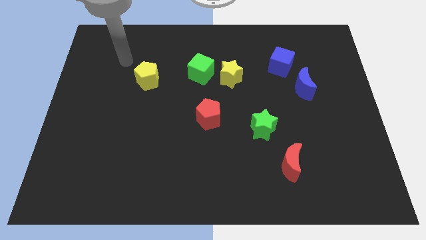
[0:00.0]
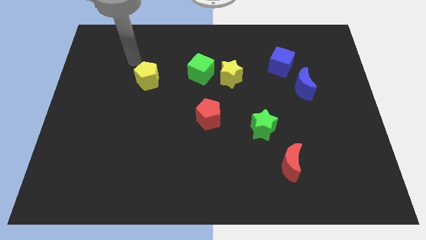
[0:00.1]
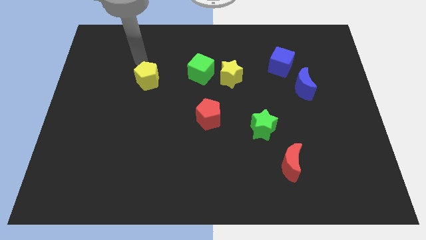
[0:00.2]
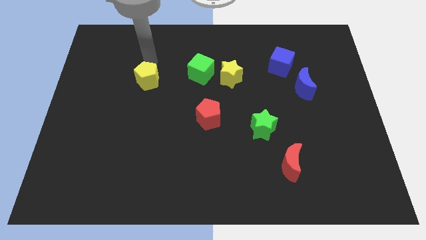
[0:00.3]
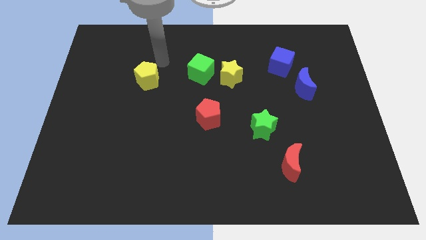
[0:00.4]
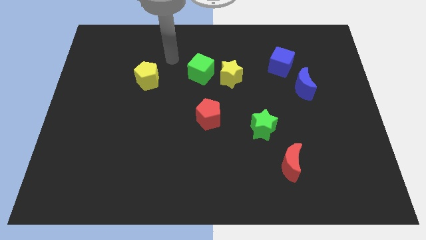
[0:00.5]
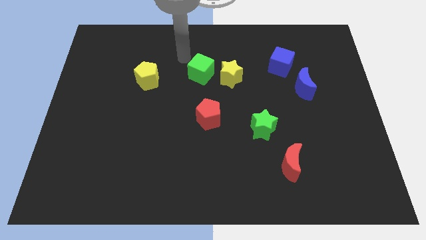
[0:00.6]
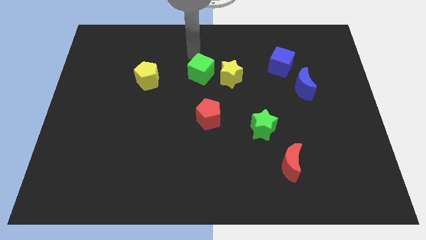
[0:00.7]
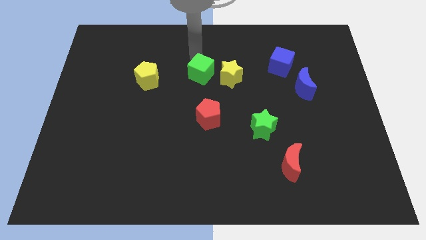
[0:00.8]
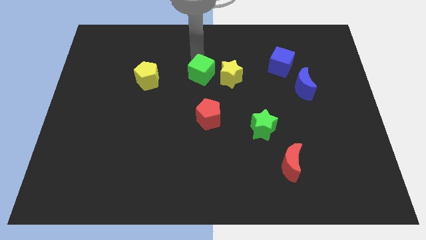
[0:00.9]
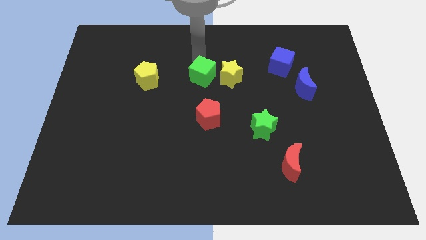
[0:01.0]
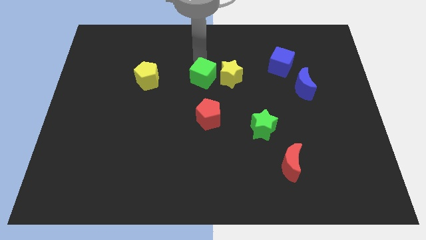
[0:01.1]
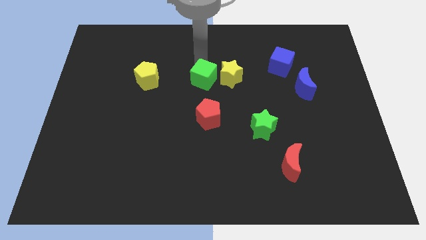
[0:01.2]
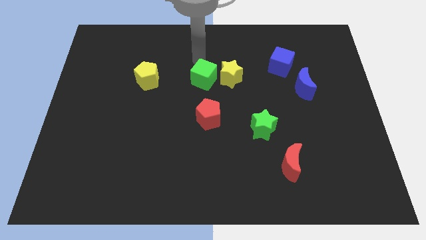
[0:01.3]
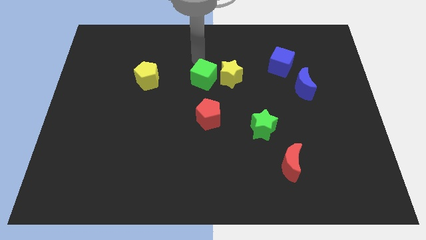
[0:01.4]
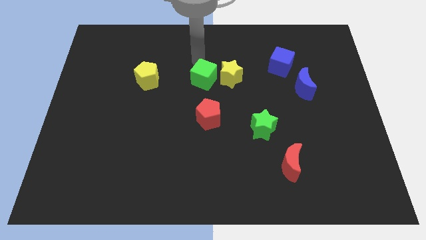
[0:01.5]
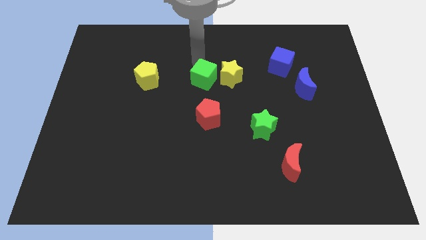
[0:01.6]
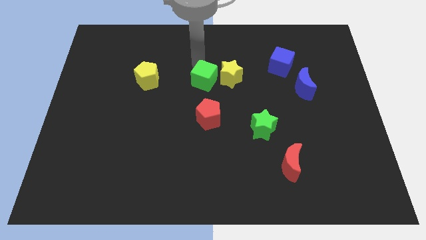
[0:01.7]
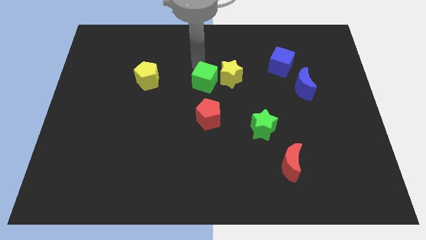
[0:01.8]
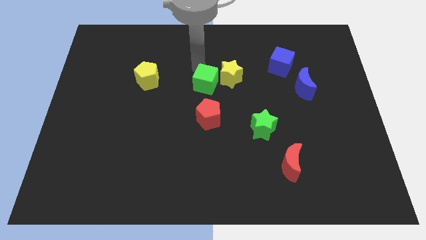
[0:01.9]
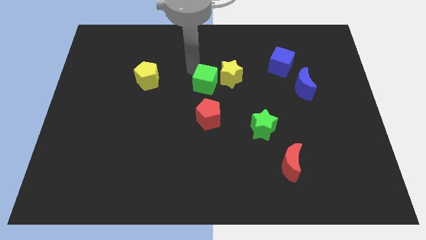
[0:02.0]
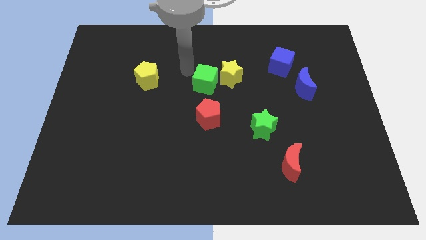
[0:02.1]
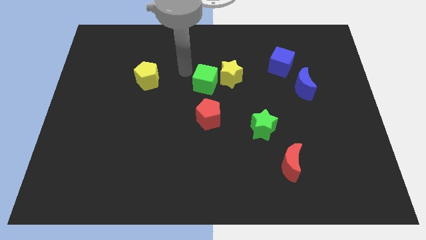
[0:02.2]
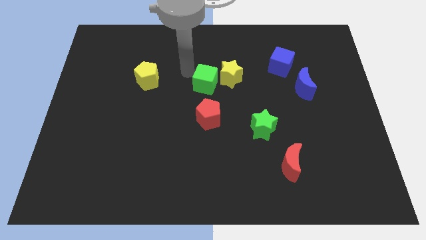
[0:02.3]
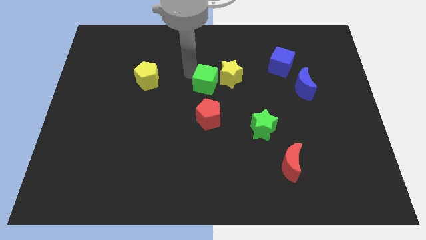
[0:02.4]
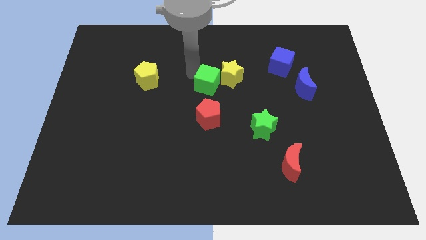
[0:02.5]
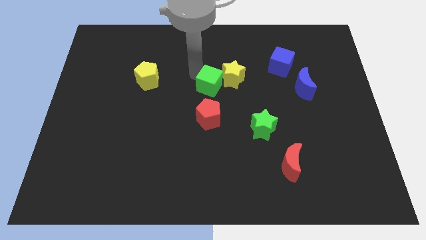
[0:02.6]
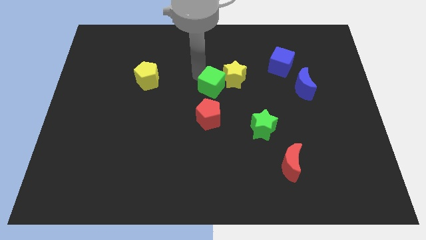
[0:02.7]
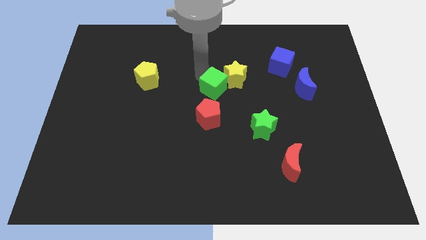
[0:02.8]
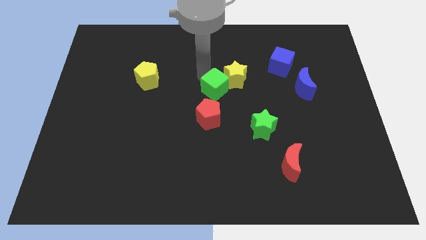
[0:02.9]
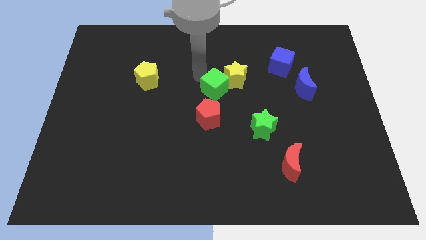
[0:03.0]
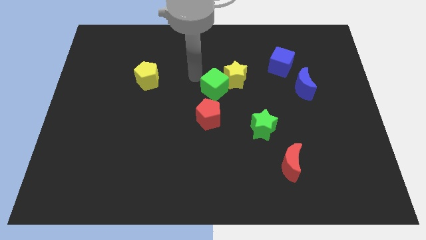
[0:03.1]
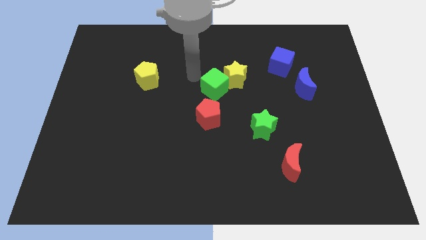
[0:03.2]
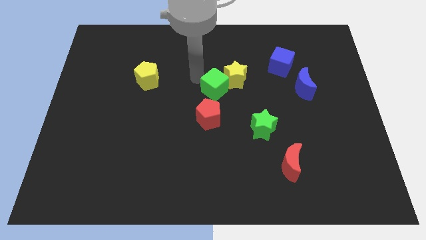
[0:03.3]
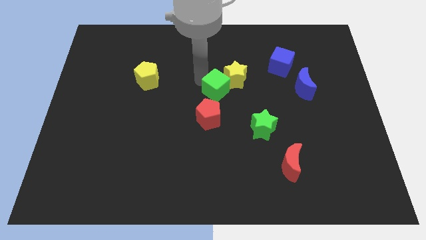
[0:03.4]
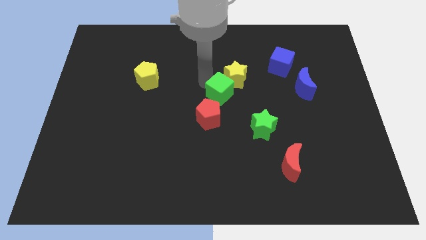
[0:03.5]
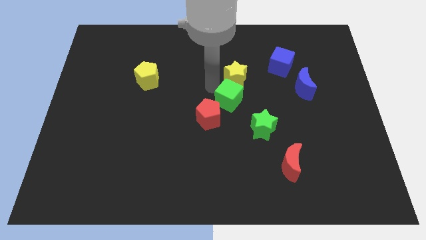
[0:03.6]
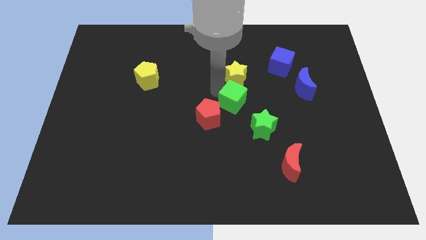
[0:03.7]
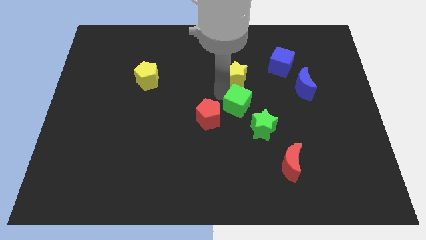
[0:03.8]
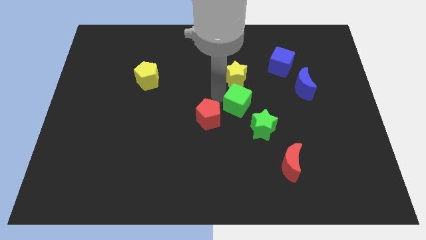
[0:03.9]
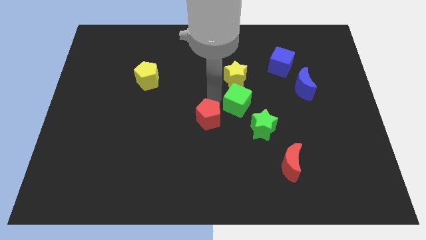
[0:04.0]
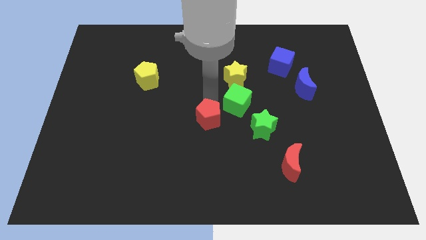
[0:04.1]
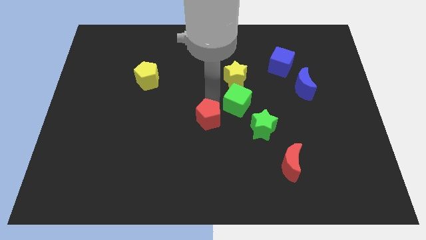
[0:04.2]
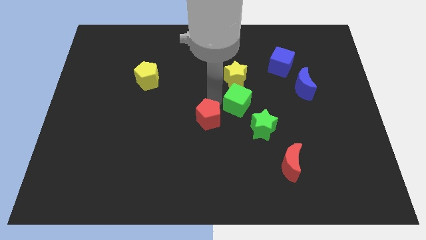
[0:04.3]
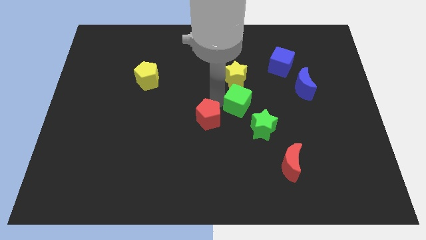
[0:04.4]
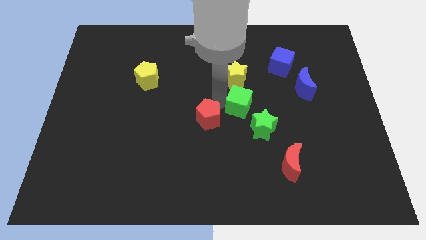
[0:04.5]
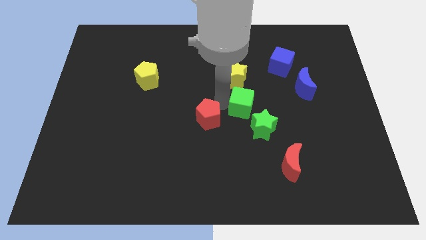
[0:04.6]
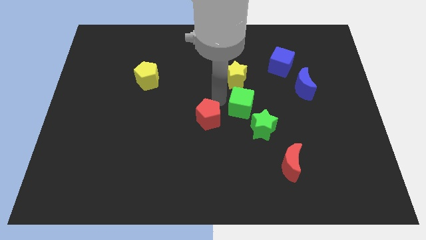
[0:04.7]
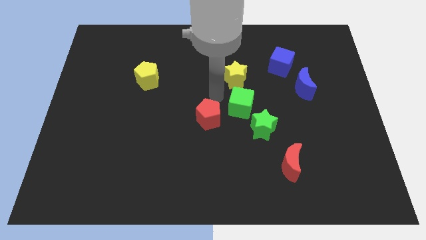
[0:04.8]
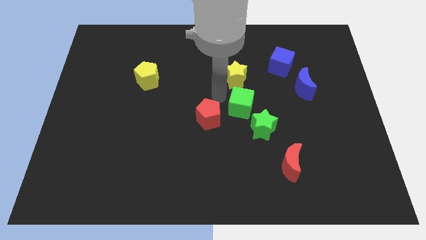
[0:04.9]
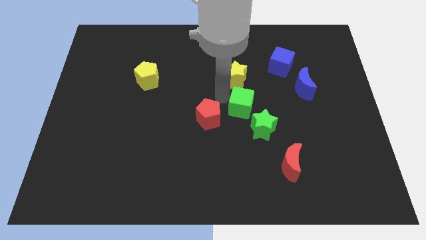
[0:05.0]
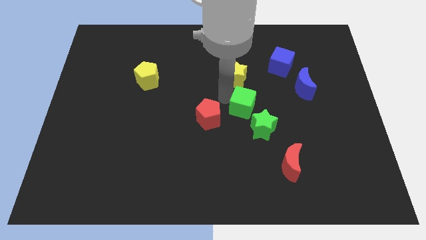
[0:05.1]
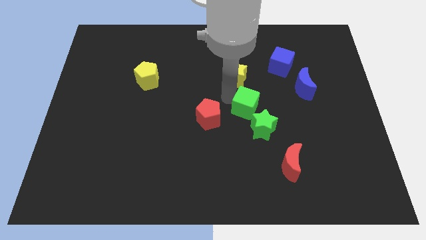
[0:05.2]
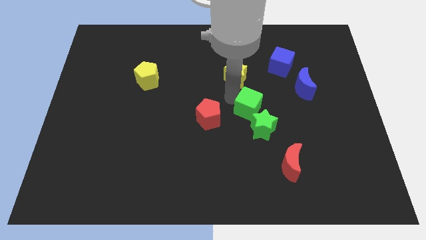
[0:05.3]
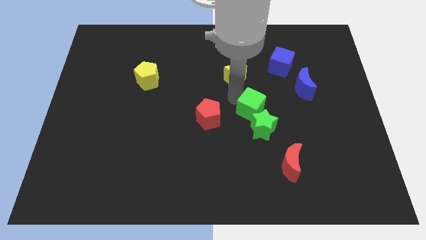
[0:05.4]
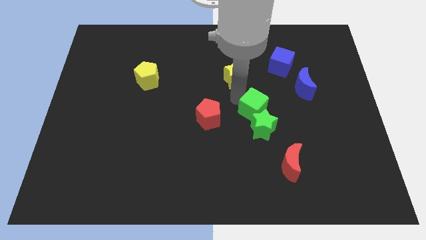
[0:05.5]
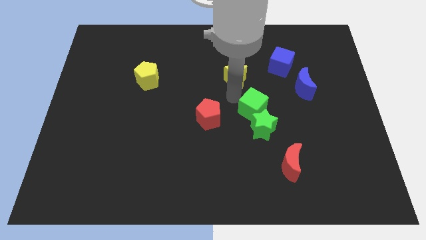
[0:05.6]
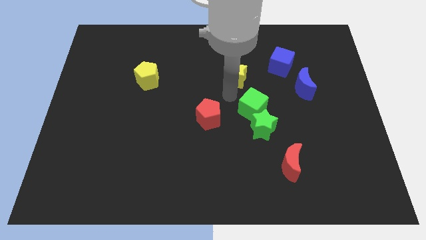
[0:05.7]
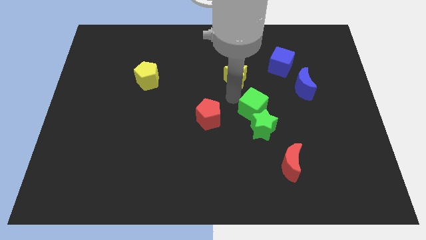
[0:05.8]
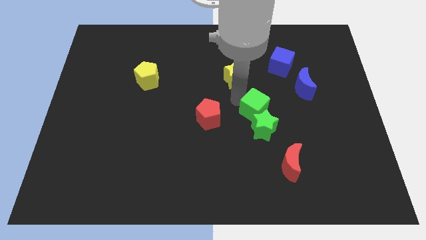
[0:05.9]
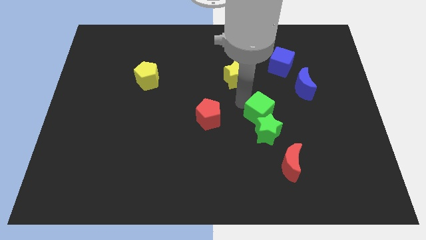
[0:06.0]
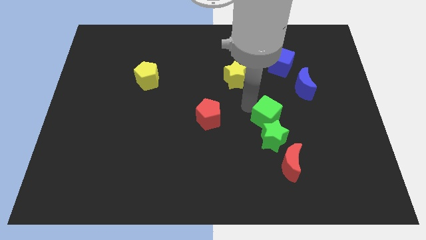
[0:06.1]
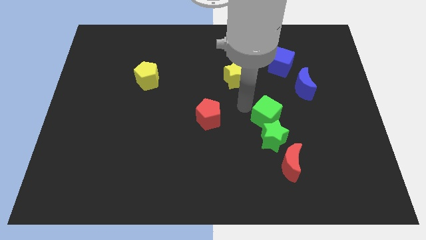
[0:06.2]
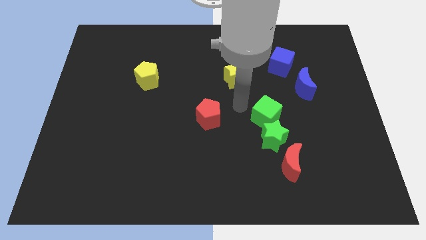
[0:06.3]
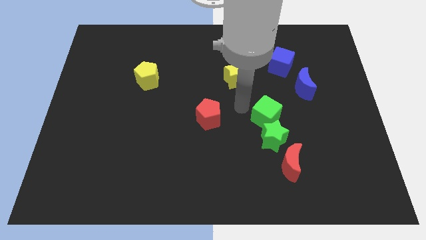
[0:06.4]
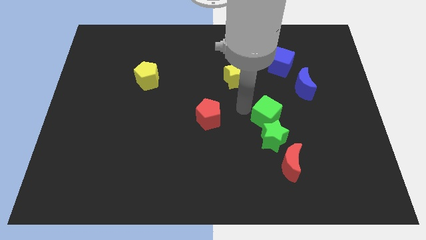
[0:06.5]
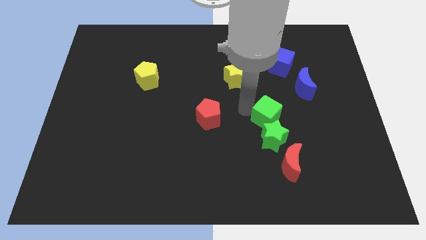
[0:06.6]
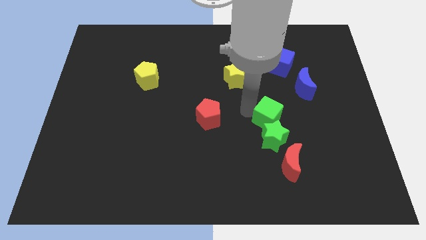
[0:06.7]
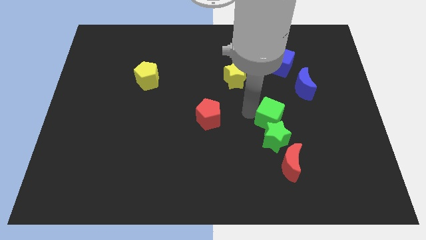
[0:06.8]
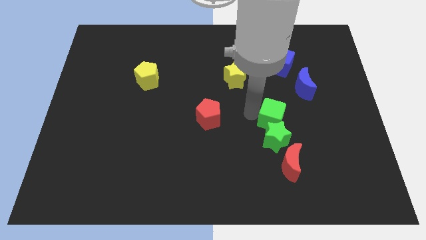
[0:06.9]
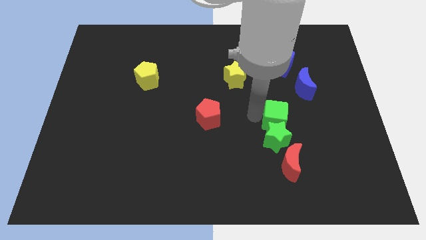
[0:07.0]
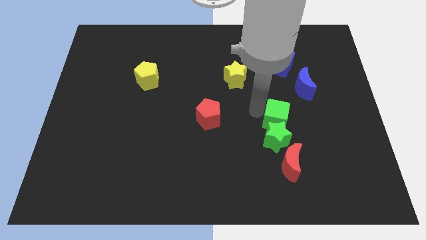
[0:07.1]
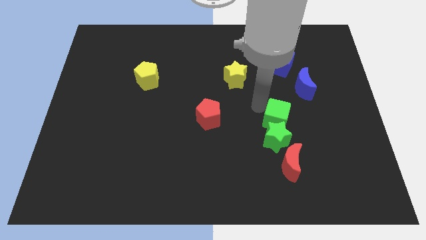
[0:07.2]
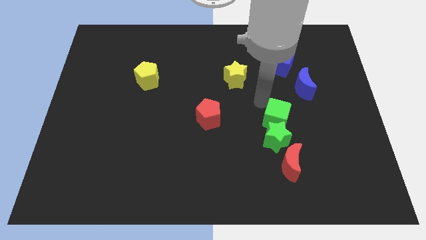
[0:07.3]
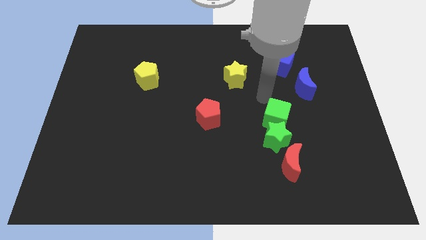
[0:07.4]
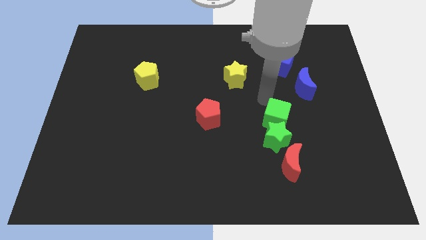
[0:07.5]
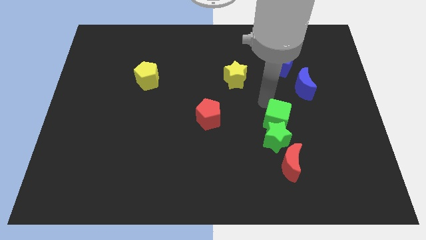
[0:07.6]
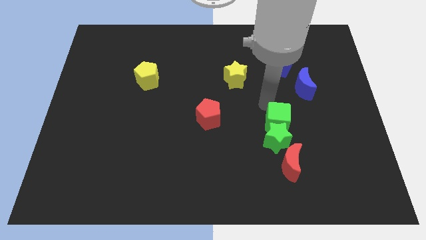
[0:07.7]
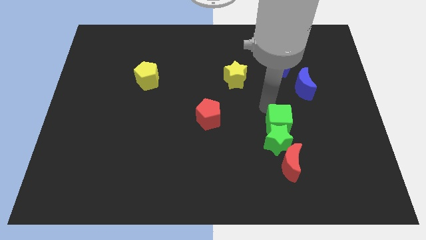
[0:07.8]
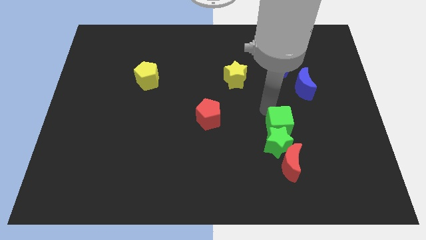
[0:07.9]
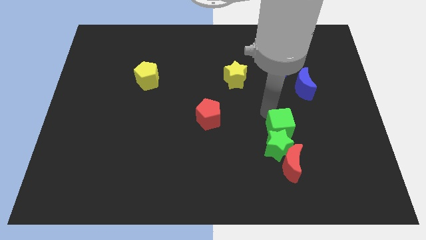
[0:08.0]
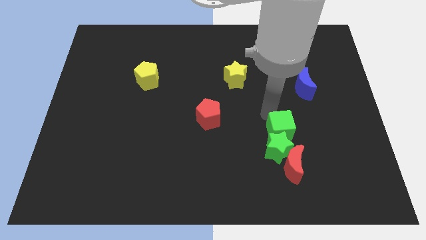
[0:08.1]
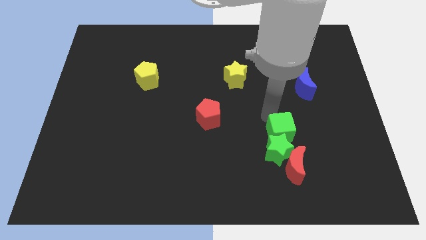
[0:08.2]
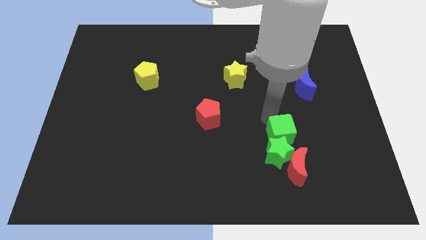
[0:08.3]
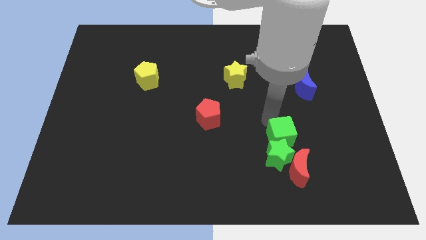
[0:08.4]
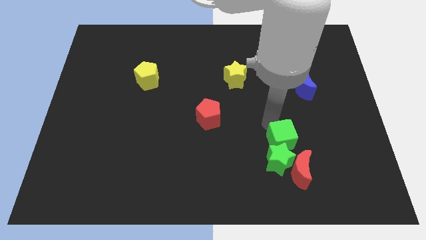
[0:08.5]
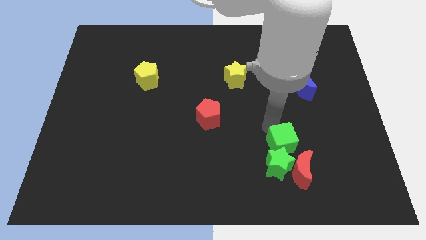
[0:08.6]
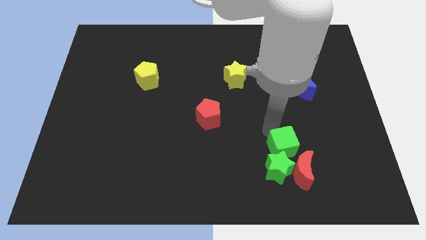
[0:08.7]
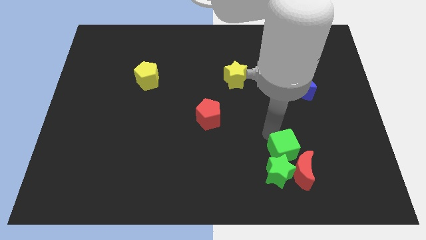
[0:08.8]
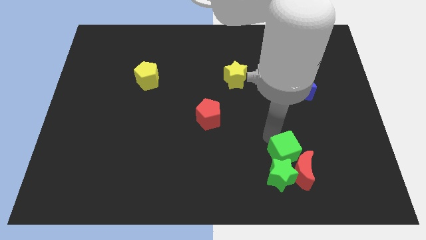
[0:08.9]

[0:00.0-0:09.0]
slide the green cube towards the red moon
